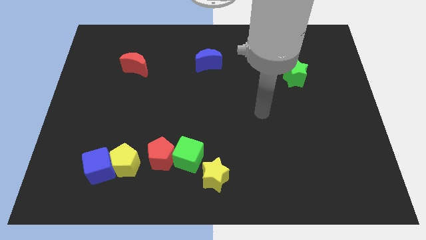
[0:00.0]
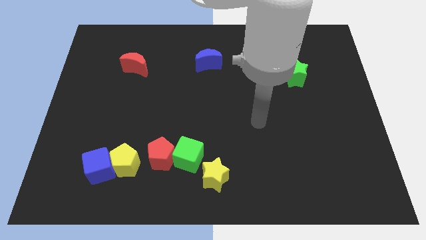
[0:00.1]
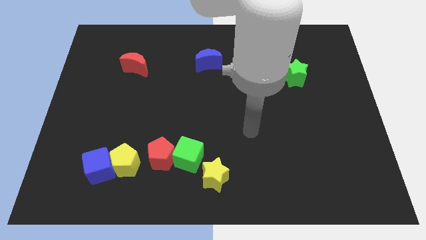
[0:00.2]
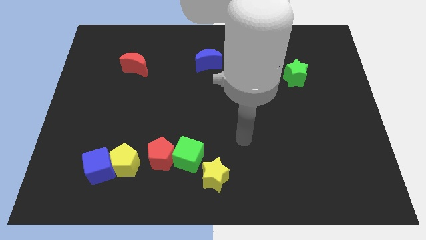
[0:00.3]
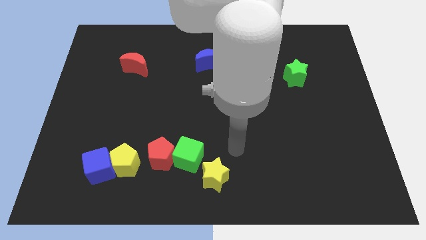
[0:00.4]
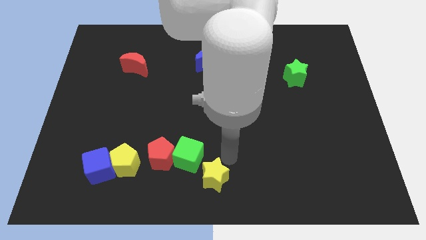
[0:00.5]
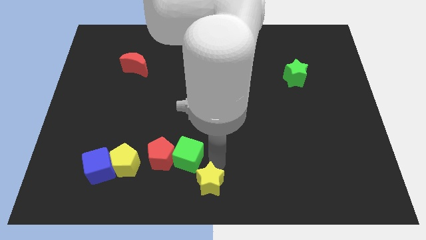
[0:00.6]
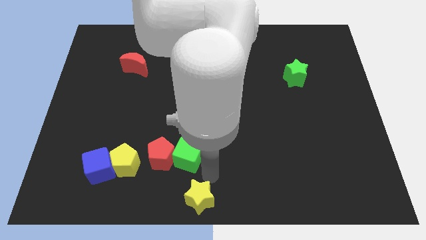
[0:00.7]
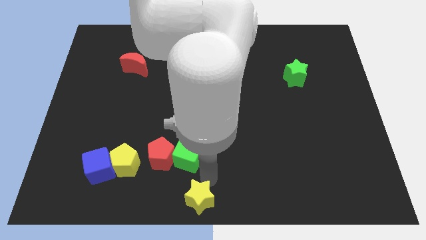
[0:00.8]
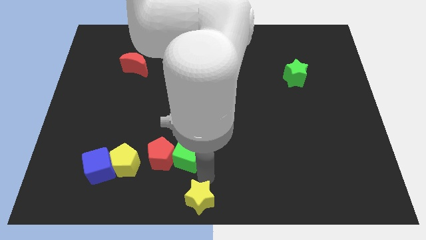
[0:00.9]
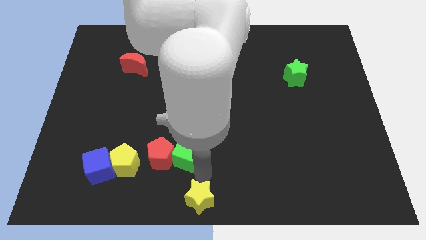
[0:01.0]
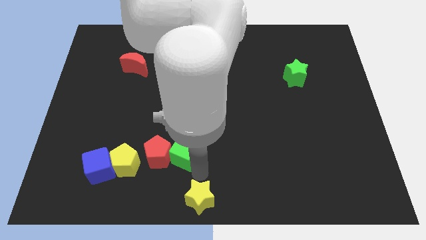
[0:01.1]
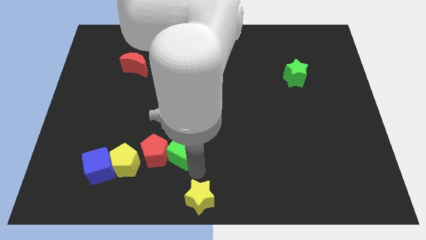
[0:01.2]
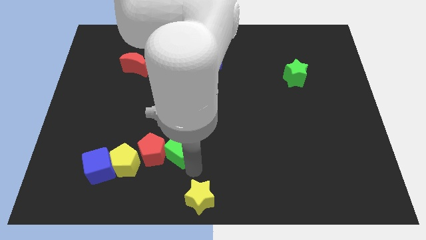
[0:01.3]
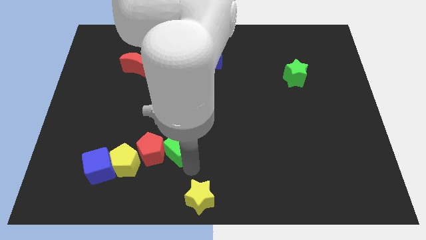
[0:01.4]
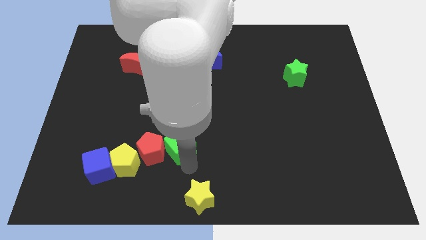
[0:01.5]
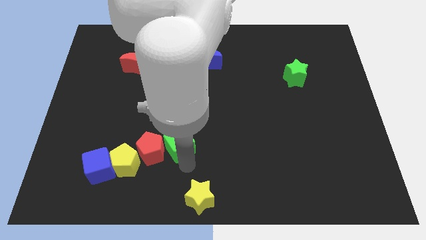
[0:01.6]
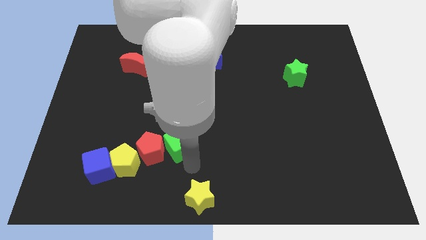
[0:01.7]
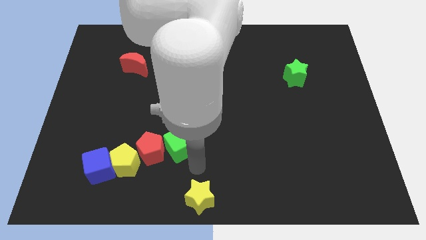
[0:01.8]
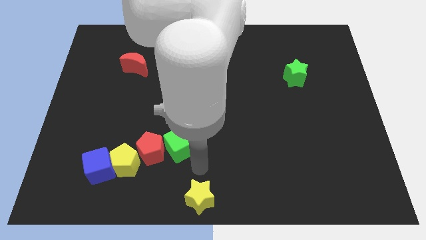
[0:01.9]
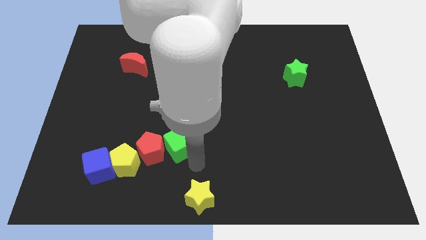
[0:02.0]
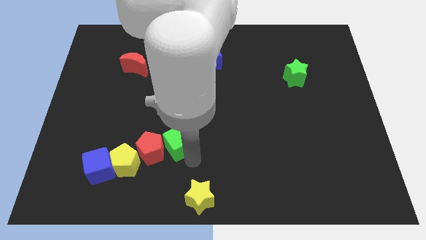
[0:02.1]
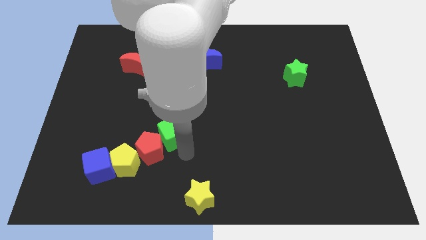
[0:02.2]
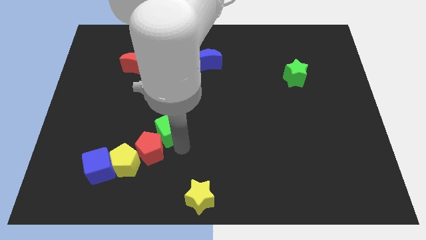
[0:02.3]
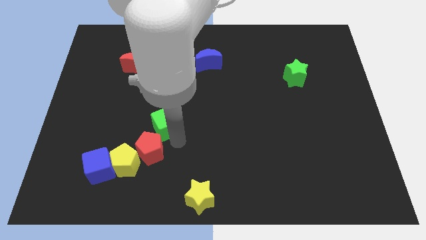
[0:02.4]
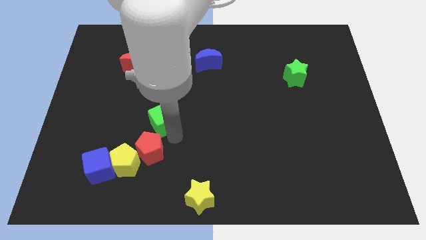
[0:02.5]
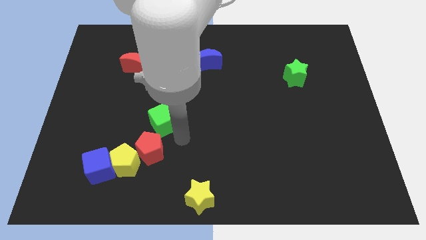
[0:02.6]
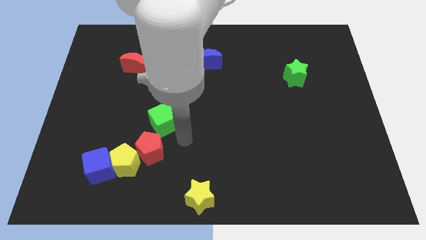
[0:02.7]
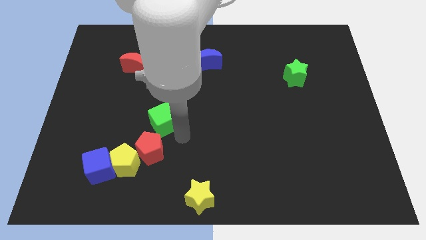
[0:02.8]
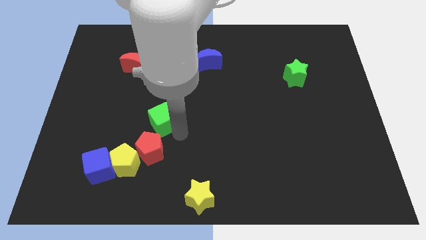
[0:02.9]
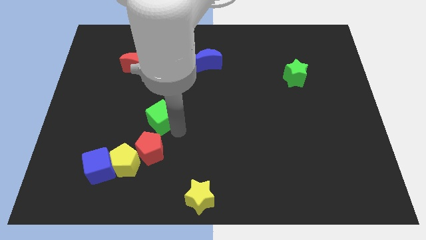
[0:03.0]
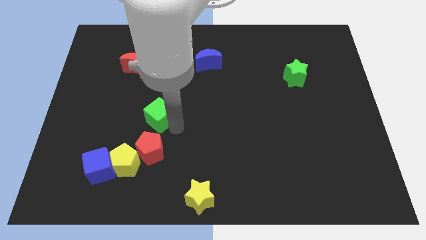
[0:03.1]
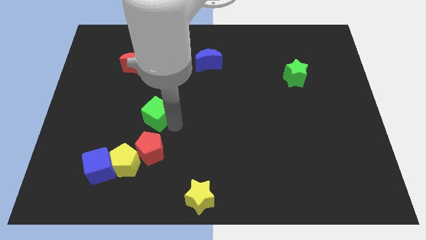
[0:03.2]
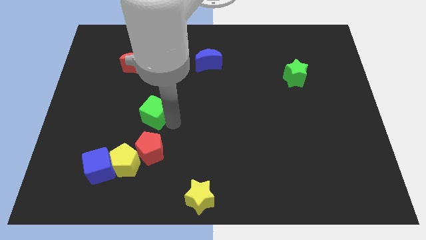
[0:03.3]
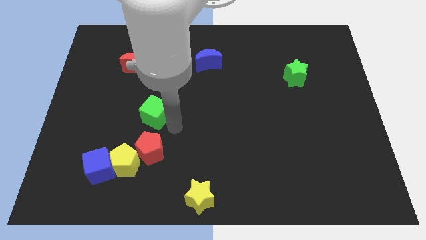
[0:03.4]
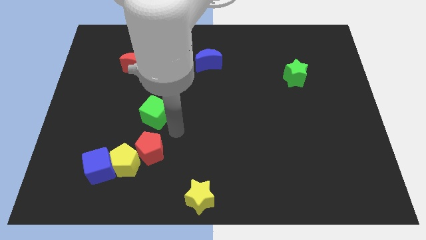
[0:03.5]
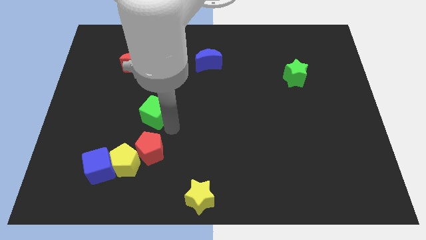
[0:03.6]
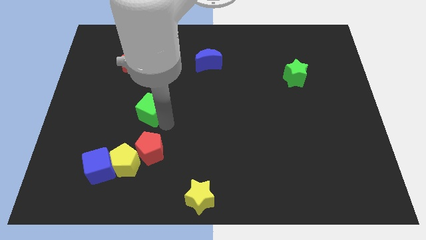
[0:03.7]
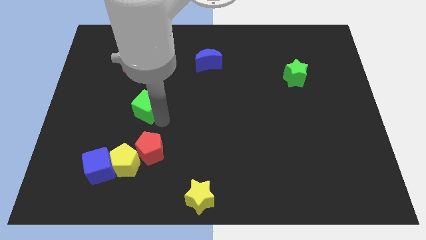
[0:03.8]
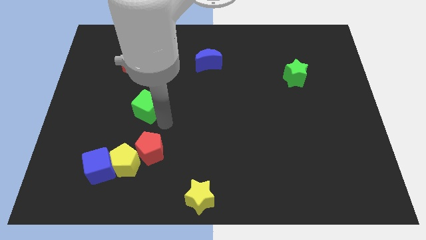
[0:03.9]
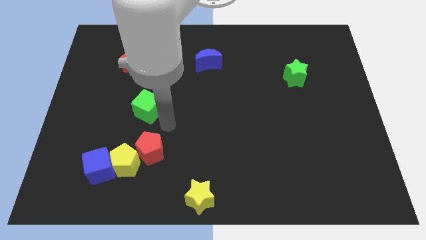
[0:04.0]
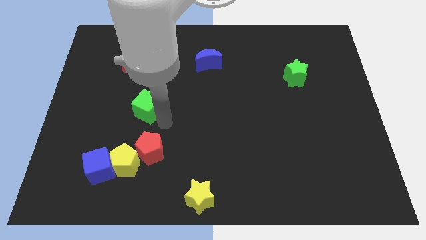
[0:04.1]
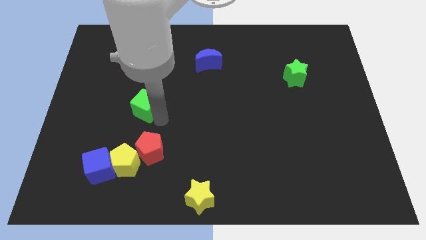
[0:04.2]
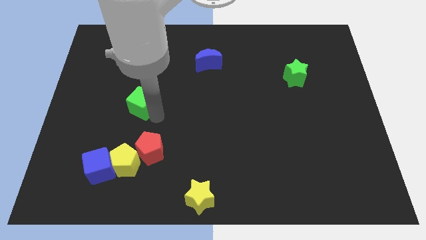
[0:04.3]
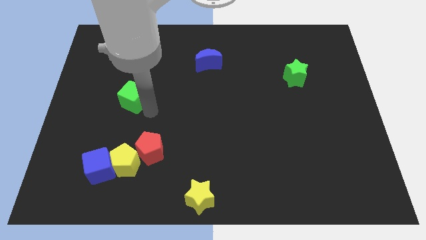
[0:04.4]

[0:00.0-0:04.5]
slide the green cube upwards and then to the left

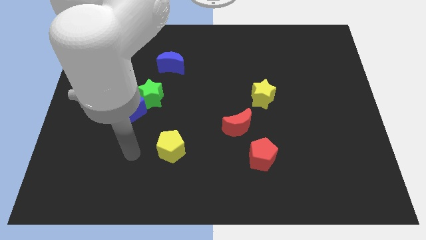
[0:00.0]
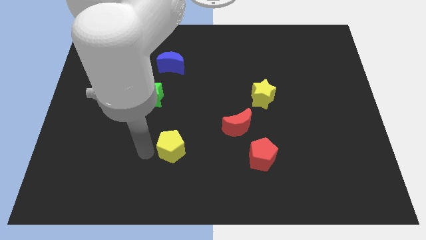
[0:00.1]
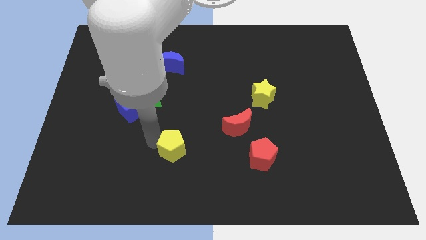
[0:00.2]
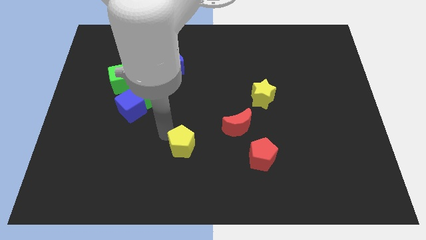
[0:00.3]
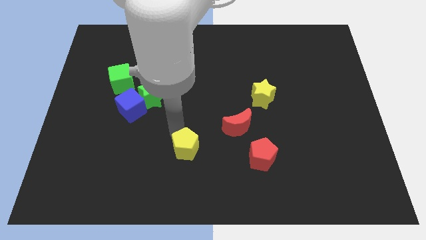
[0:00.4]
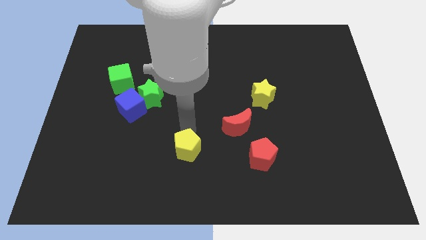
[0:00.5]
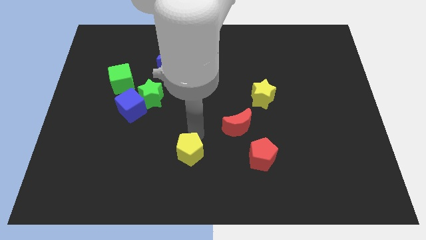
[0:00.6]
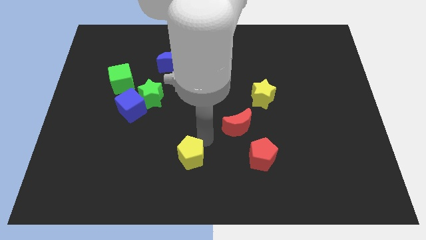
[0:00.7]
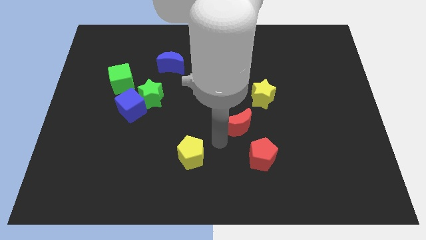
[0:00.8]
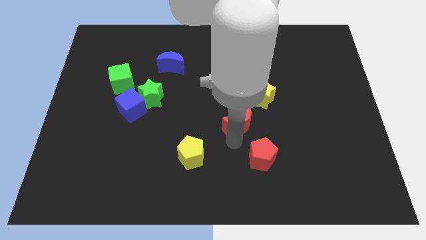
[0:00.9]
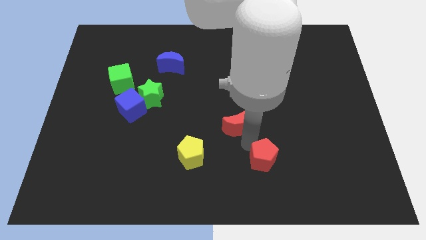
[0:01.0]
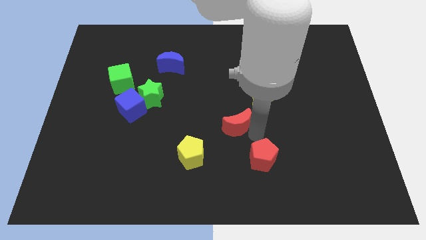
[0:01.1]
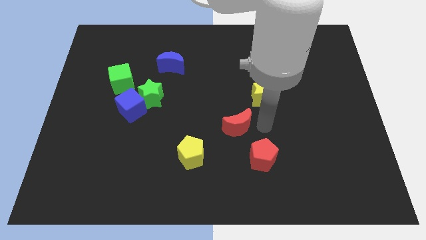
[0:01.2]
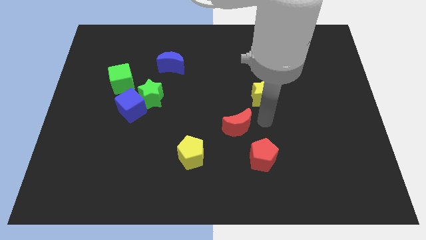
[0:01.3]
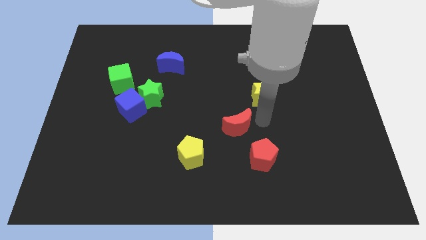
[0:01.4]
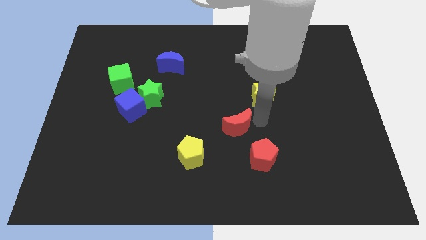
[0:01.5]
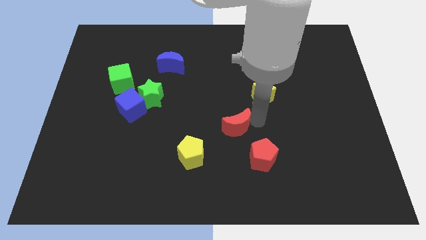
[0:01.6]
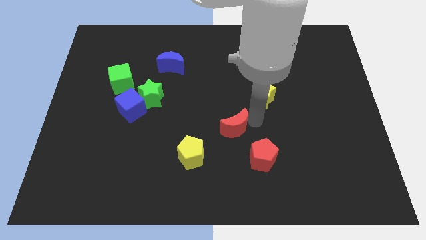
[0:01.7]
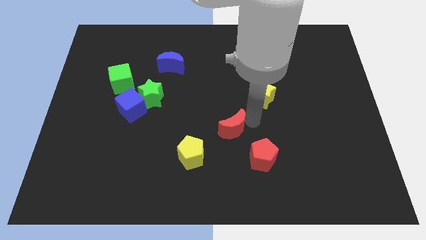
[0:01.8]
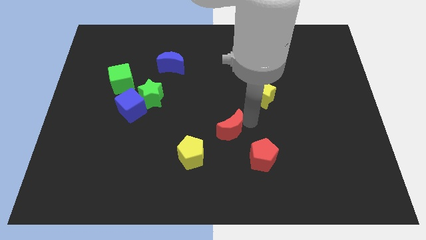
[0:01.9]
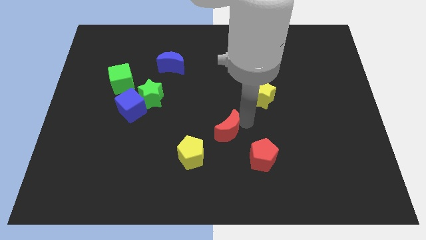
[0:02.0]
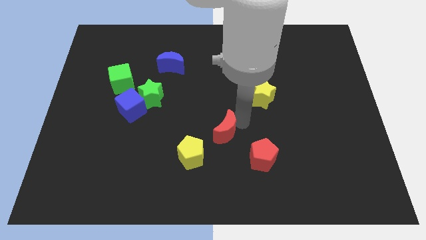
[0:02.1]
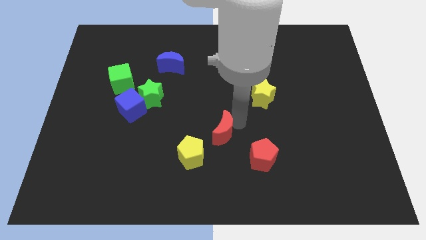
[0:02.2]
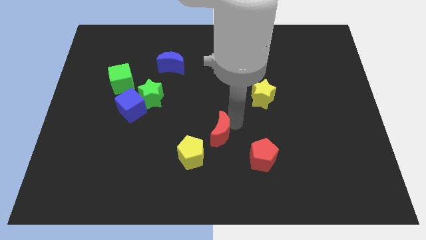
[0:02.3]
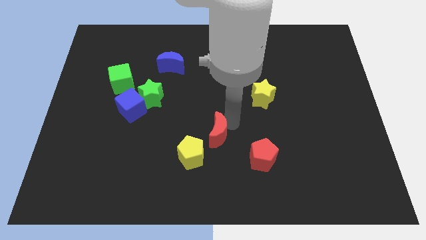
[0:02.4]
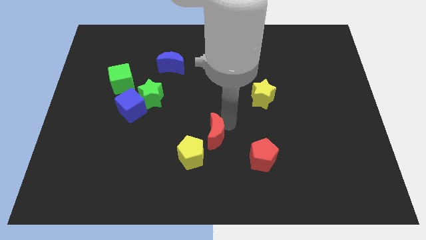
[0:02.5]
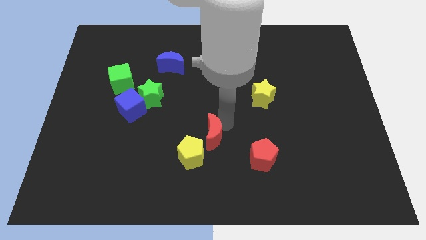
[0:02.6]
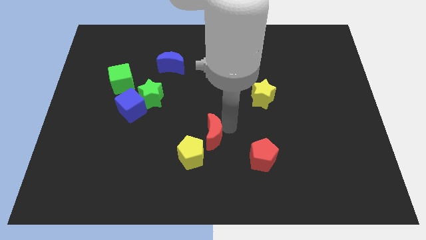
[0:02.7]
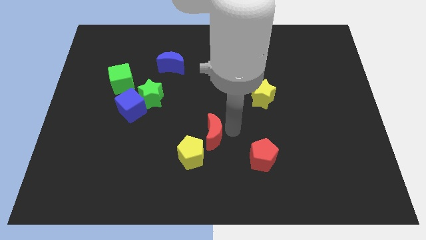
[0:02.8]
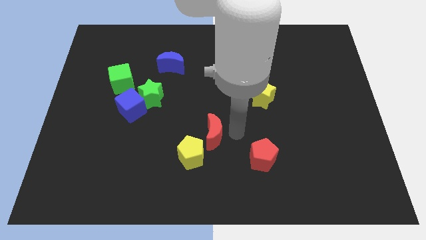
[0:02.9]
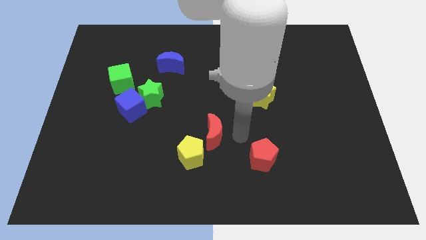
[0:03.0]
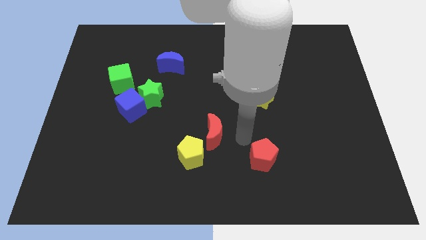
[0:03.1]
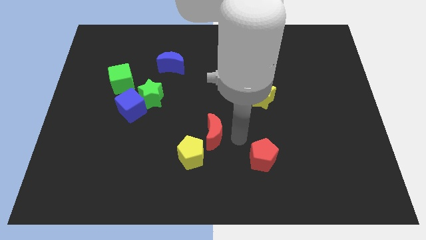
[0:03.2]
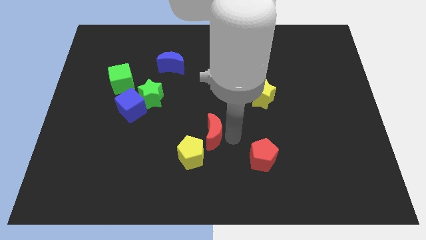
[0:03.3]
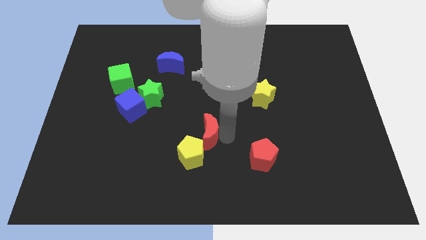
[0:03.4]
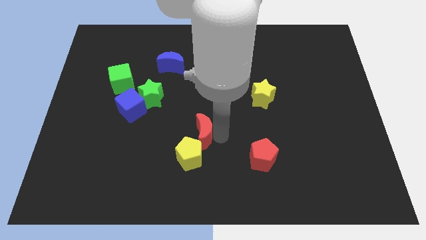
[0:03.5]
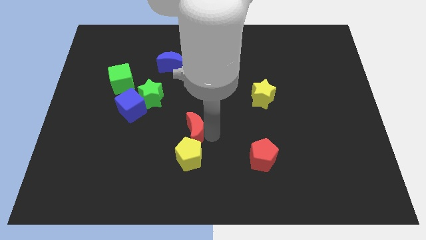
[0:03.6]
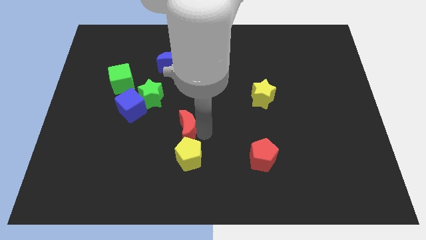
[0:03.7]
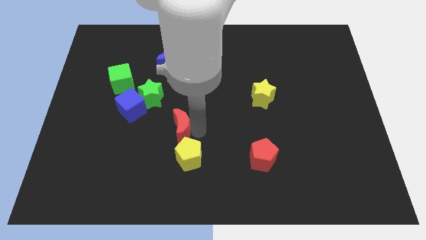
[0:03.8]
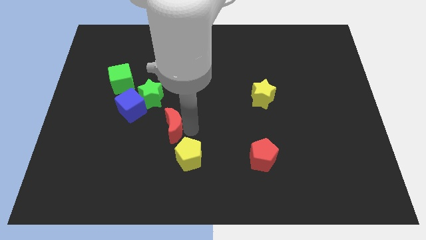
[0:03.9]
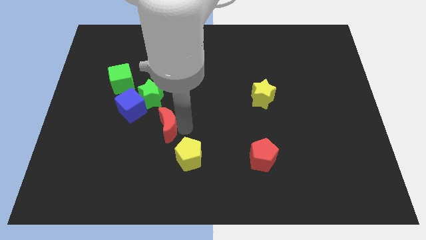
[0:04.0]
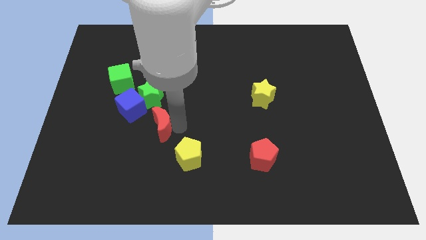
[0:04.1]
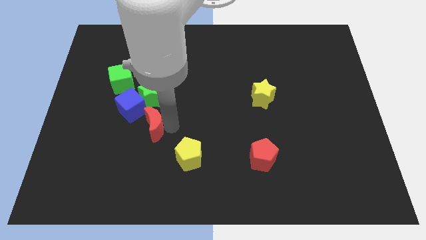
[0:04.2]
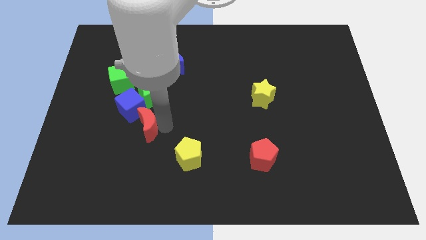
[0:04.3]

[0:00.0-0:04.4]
move the red moon to the left
